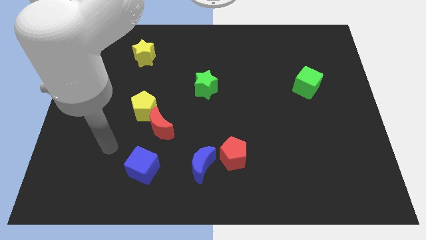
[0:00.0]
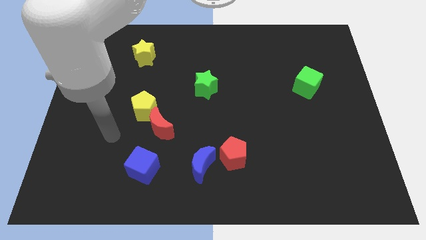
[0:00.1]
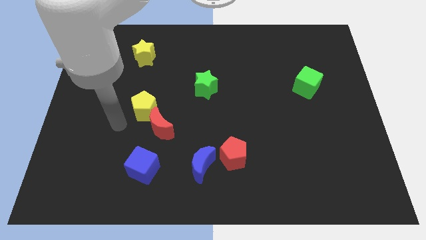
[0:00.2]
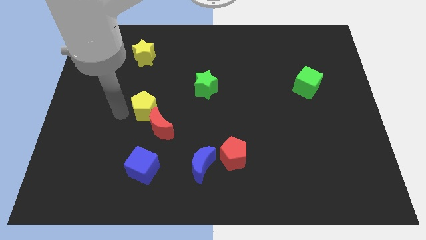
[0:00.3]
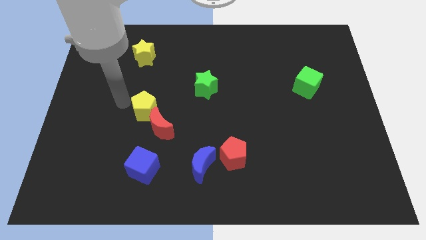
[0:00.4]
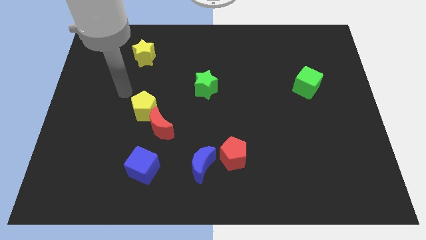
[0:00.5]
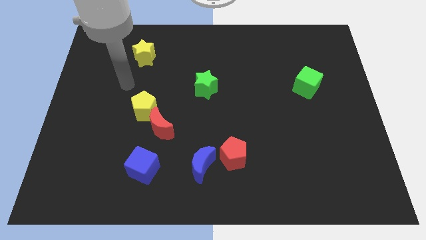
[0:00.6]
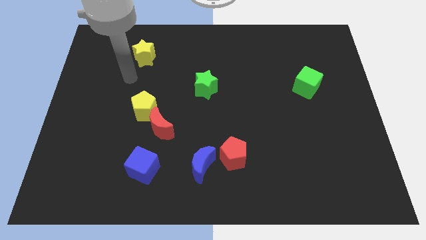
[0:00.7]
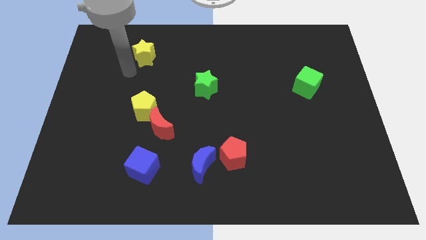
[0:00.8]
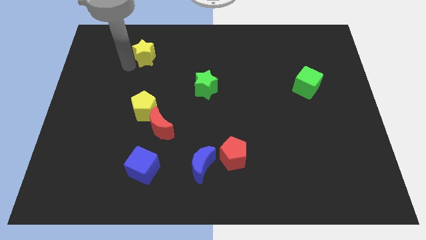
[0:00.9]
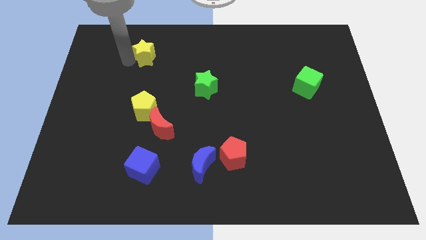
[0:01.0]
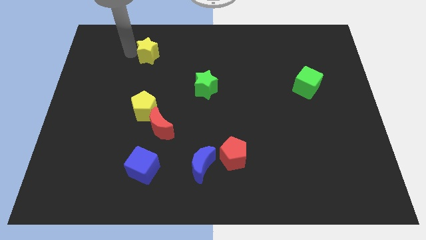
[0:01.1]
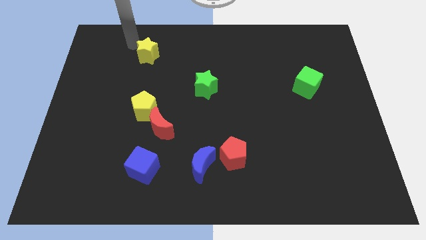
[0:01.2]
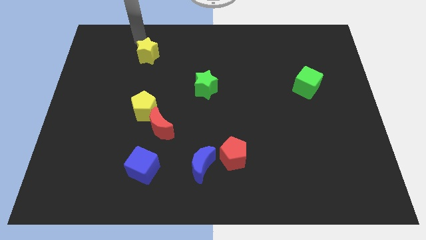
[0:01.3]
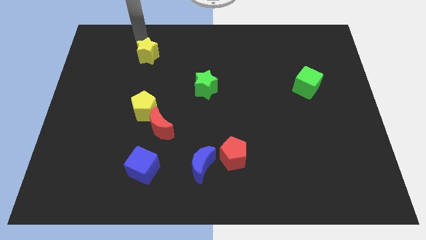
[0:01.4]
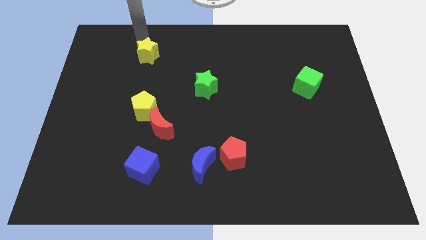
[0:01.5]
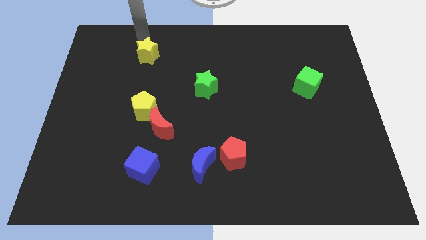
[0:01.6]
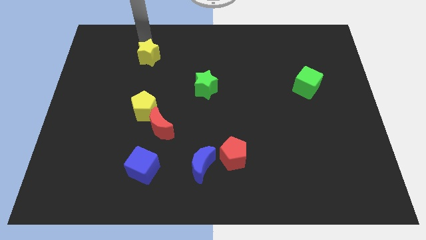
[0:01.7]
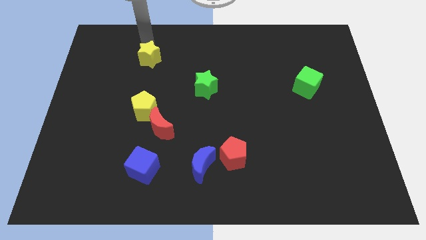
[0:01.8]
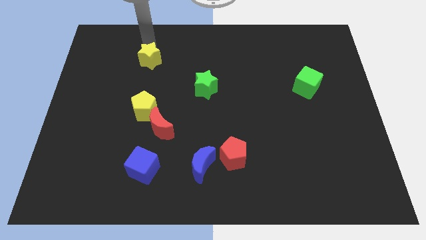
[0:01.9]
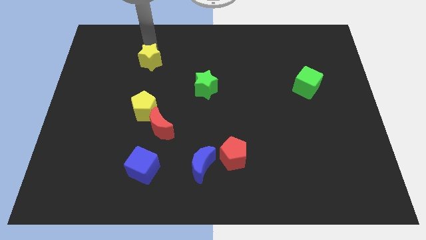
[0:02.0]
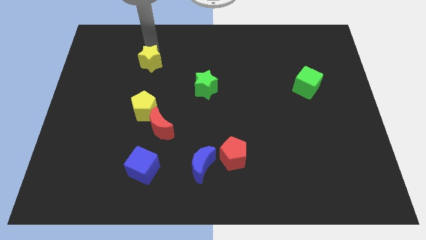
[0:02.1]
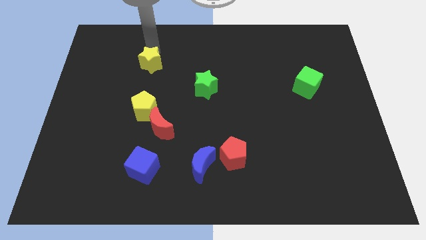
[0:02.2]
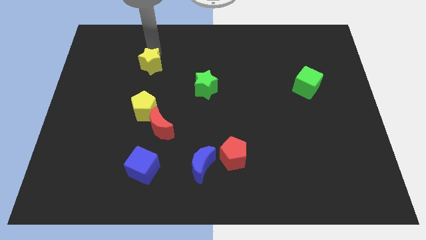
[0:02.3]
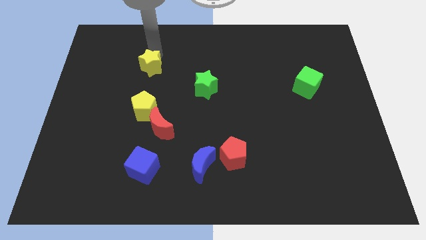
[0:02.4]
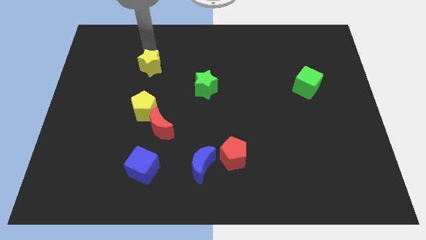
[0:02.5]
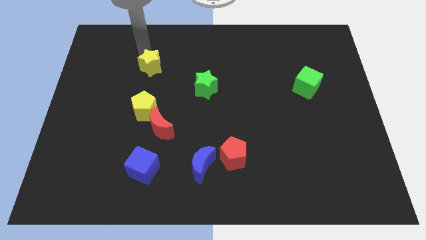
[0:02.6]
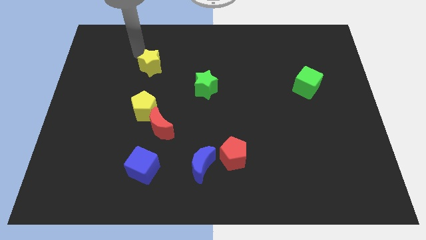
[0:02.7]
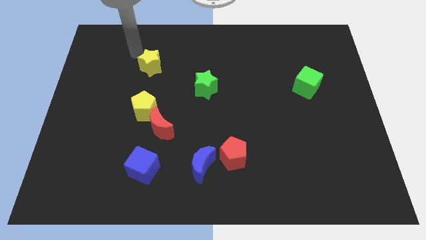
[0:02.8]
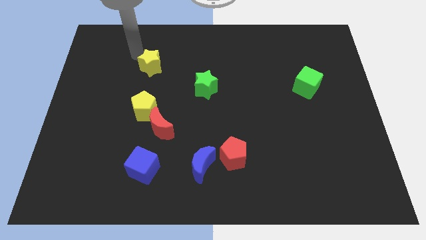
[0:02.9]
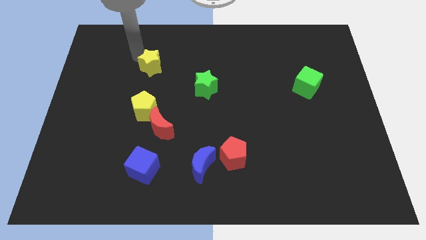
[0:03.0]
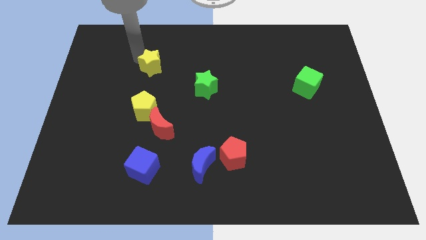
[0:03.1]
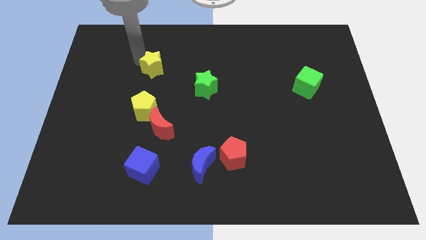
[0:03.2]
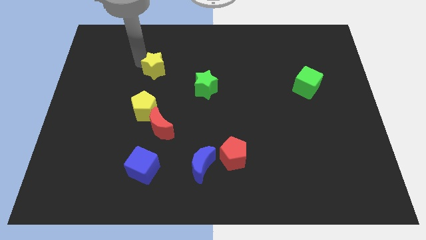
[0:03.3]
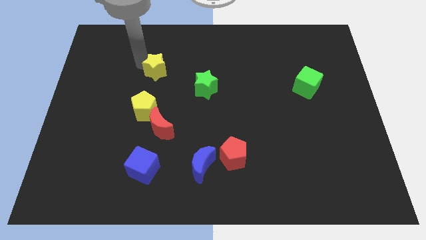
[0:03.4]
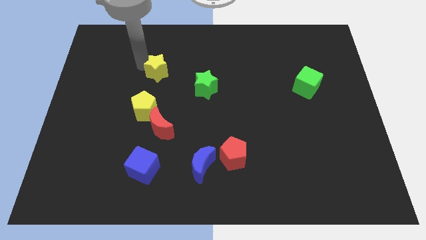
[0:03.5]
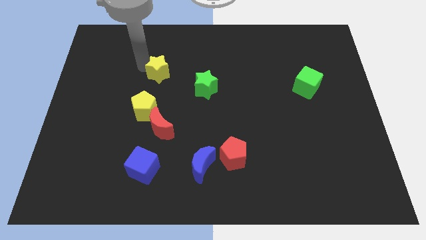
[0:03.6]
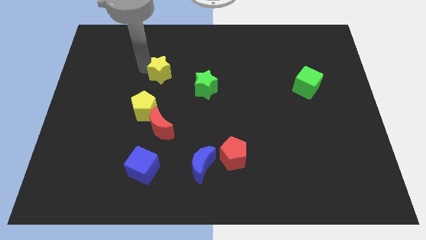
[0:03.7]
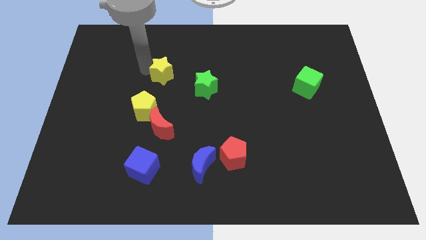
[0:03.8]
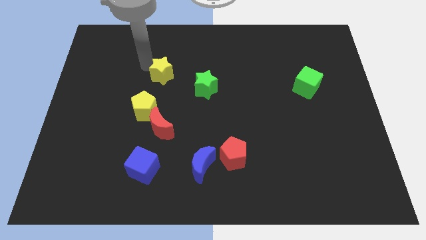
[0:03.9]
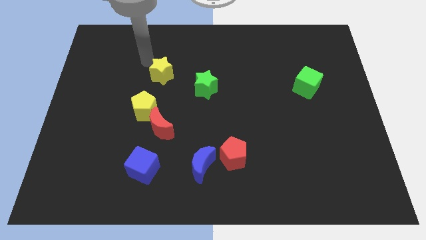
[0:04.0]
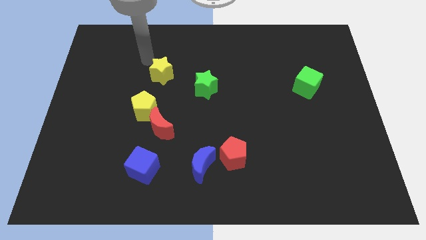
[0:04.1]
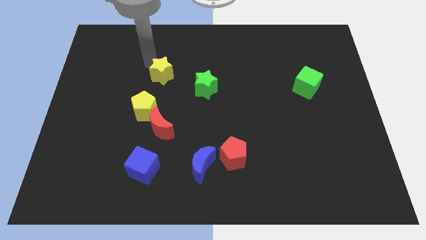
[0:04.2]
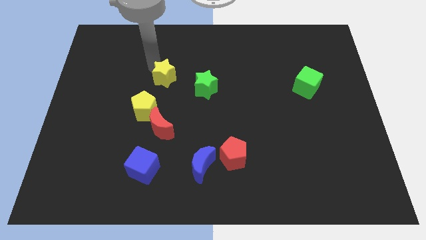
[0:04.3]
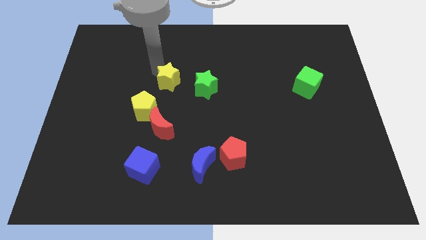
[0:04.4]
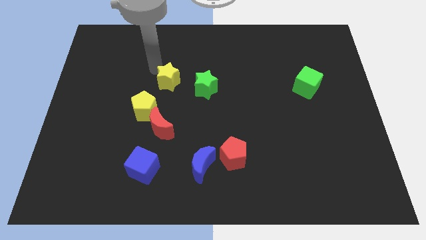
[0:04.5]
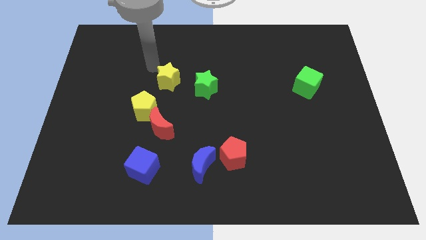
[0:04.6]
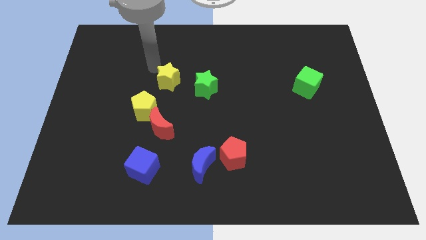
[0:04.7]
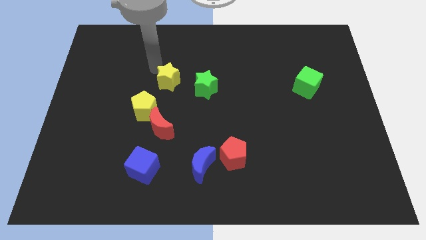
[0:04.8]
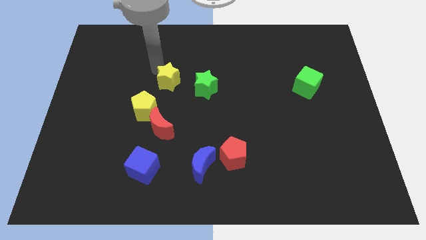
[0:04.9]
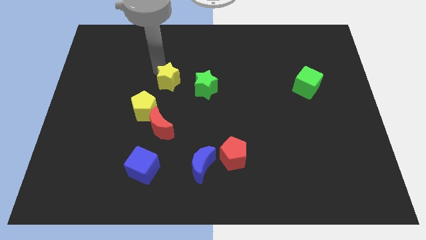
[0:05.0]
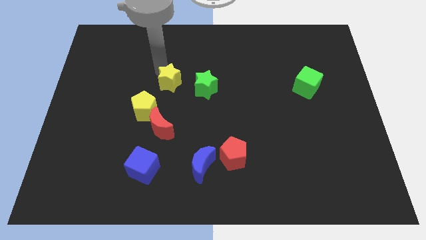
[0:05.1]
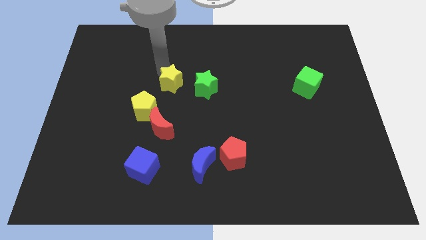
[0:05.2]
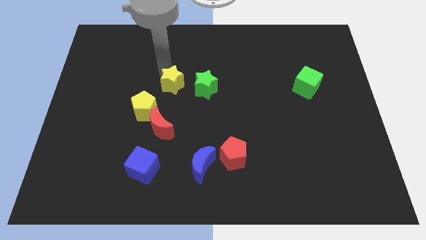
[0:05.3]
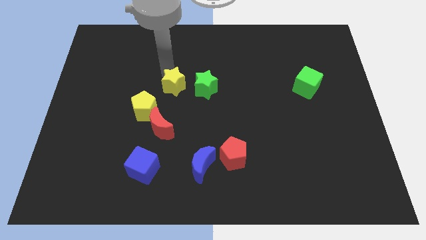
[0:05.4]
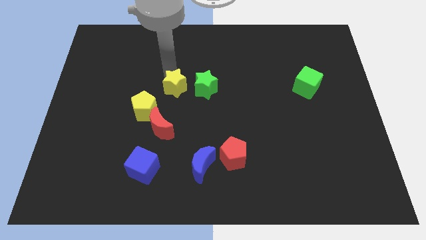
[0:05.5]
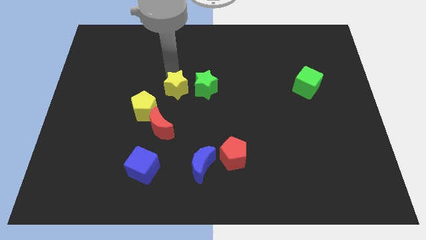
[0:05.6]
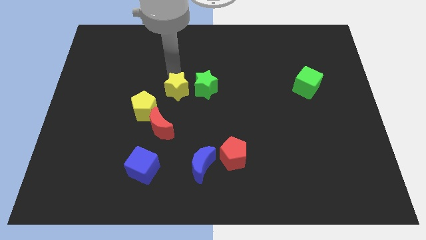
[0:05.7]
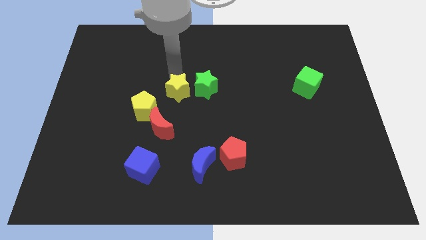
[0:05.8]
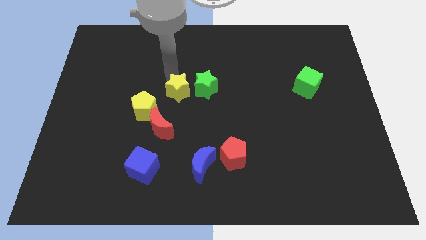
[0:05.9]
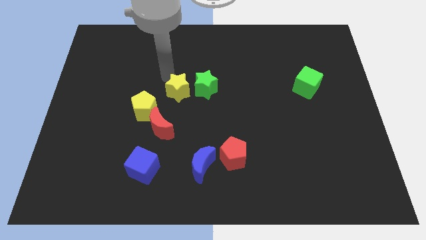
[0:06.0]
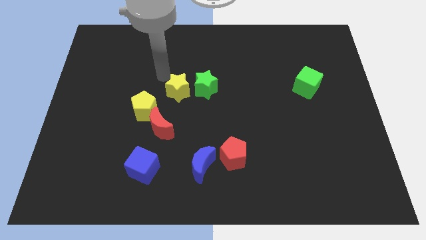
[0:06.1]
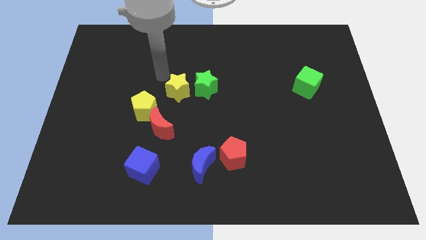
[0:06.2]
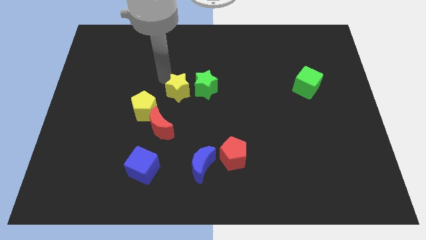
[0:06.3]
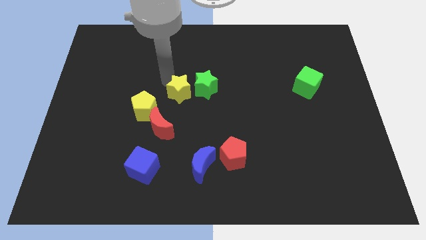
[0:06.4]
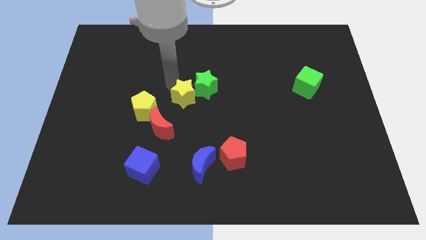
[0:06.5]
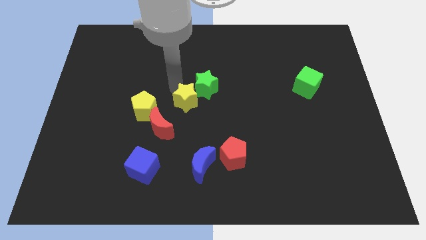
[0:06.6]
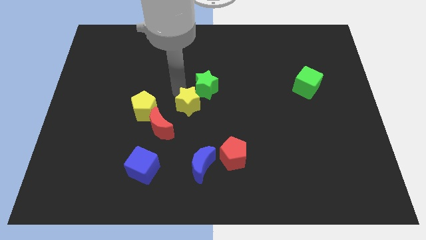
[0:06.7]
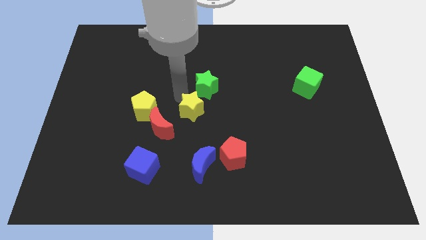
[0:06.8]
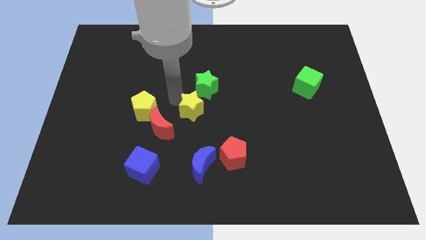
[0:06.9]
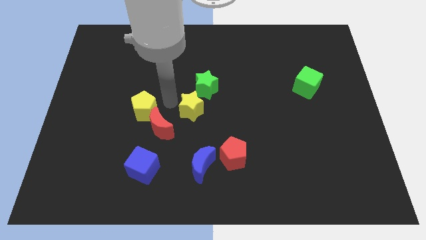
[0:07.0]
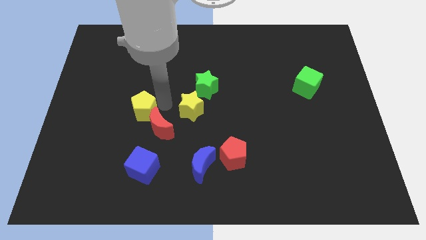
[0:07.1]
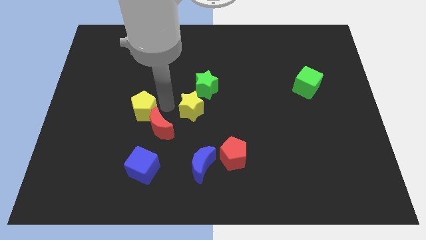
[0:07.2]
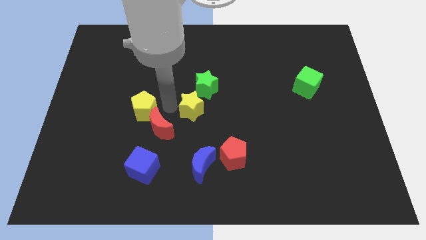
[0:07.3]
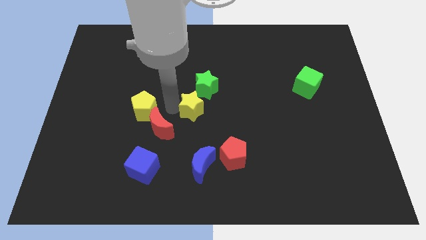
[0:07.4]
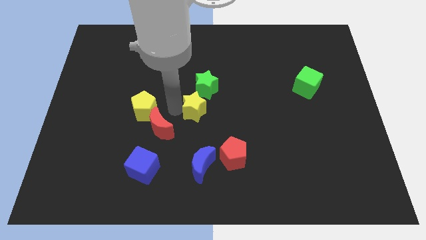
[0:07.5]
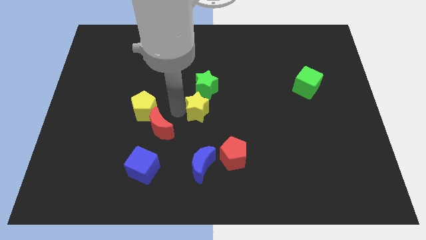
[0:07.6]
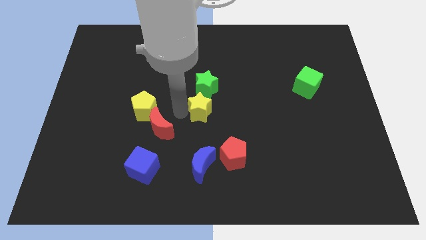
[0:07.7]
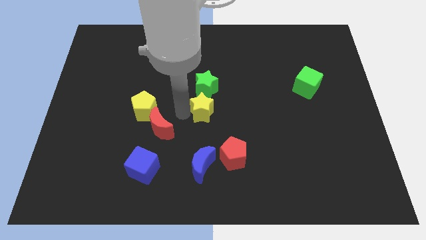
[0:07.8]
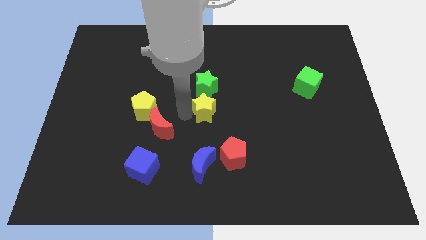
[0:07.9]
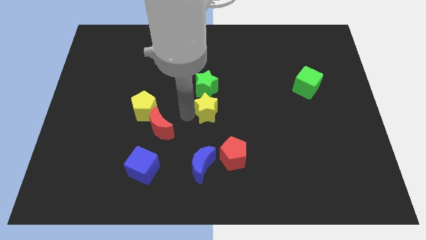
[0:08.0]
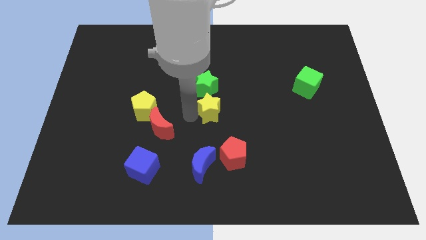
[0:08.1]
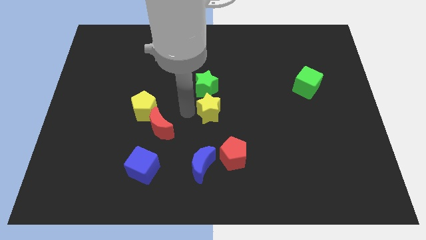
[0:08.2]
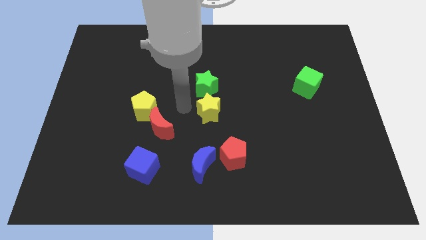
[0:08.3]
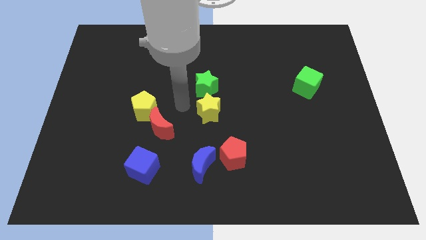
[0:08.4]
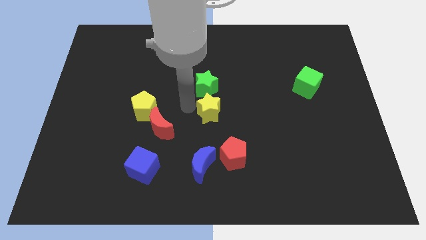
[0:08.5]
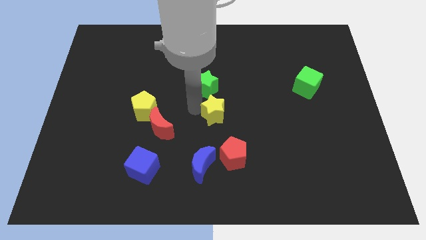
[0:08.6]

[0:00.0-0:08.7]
move the yellow star above the red pentagon
